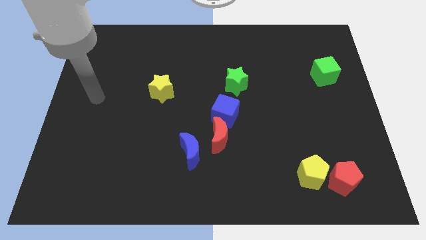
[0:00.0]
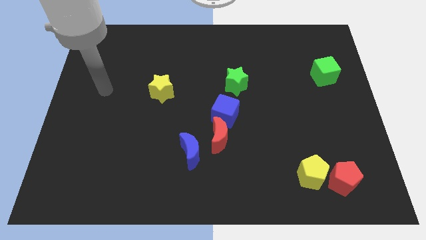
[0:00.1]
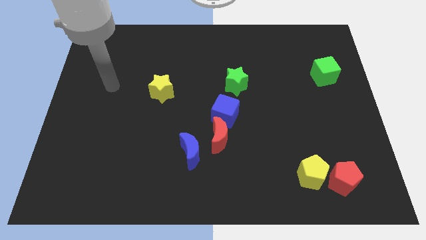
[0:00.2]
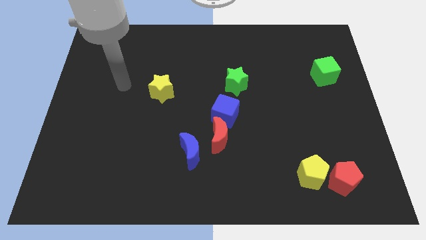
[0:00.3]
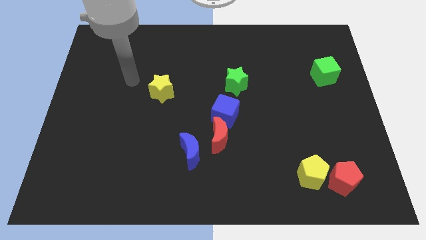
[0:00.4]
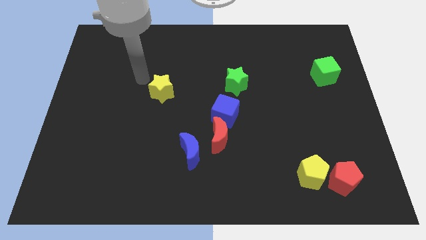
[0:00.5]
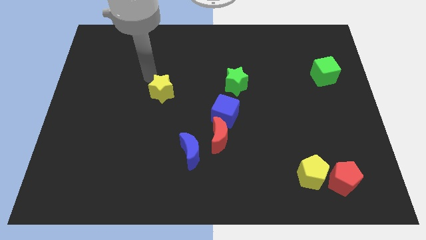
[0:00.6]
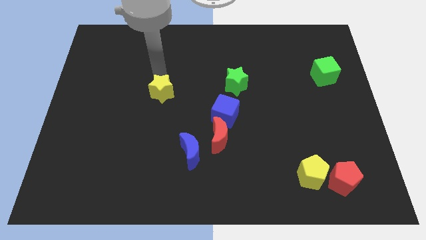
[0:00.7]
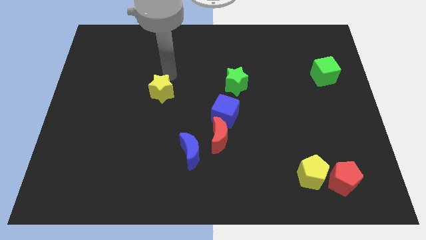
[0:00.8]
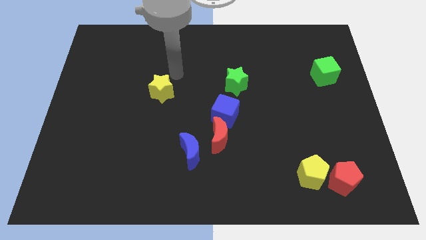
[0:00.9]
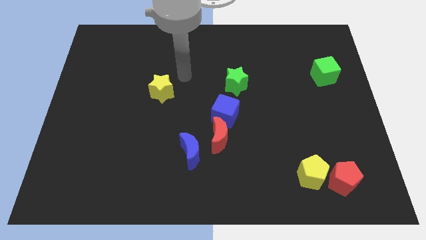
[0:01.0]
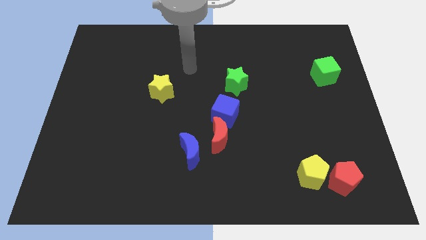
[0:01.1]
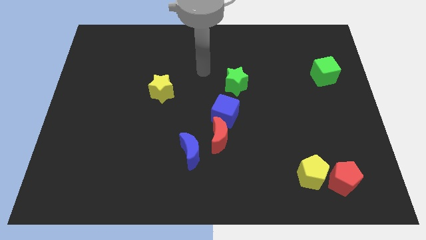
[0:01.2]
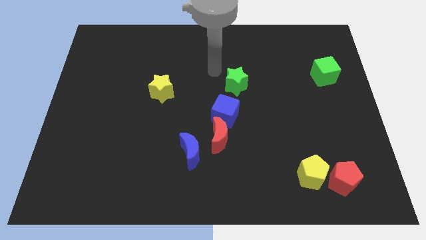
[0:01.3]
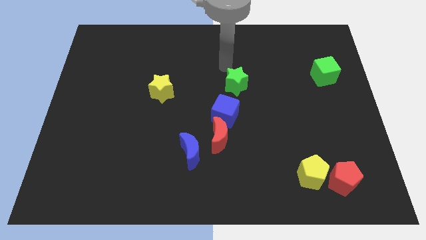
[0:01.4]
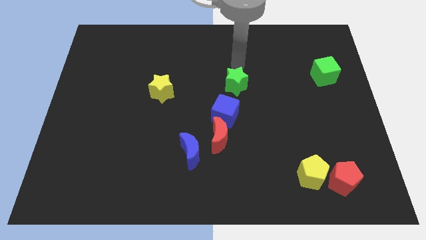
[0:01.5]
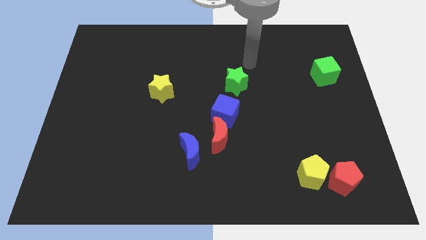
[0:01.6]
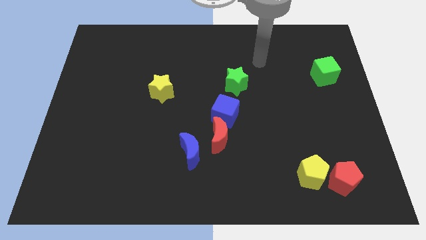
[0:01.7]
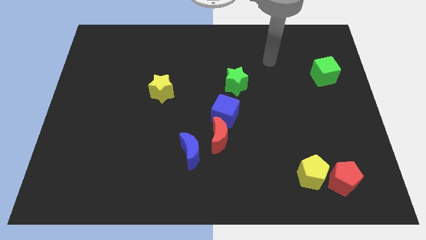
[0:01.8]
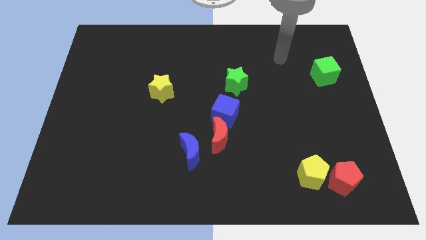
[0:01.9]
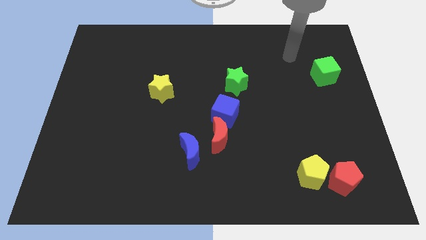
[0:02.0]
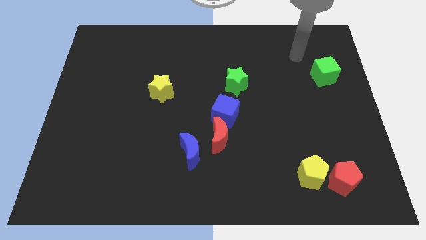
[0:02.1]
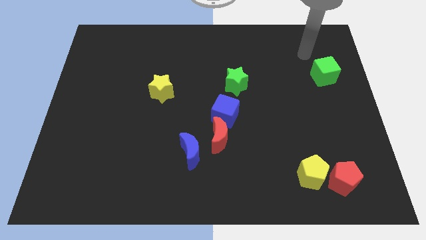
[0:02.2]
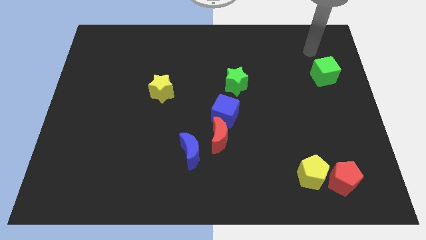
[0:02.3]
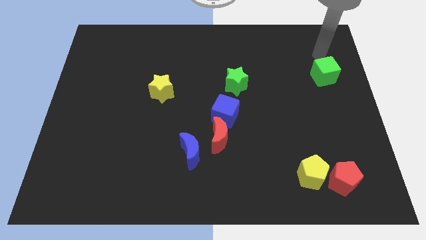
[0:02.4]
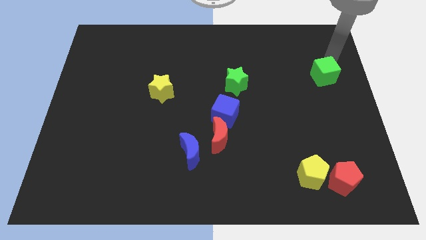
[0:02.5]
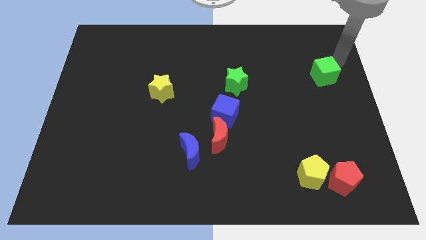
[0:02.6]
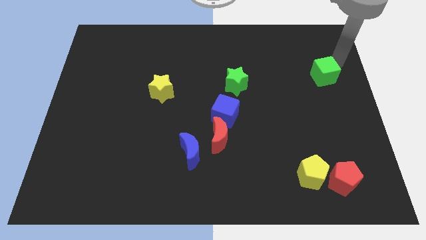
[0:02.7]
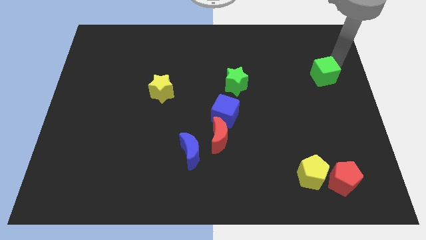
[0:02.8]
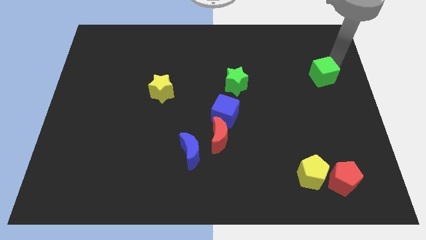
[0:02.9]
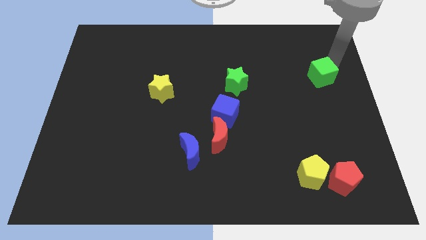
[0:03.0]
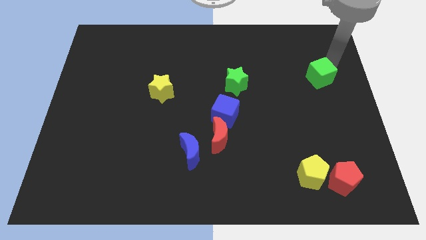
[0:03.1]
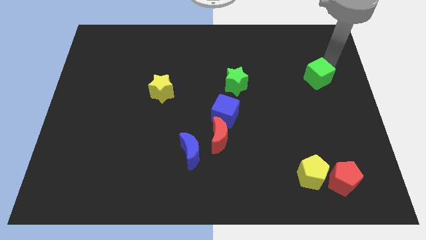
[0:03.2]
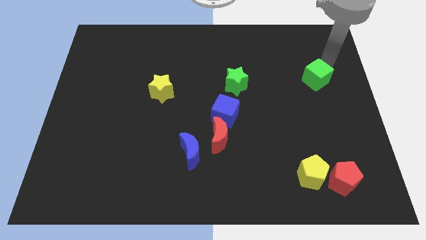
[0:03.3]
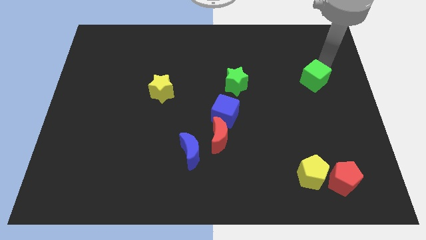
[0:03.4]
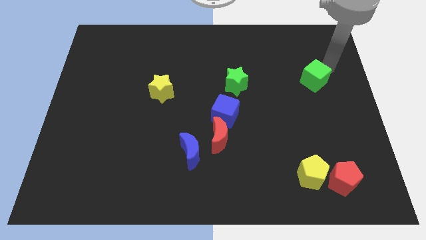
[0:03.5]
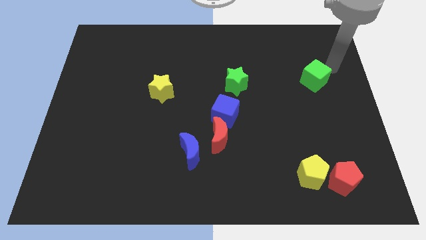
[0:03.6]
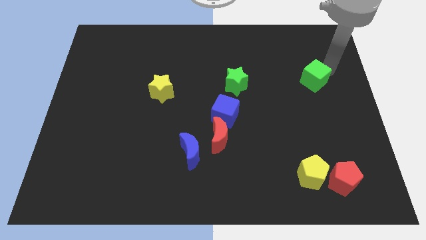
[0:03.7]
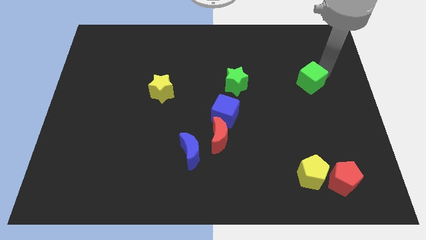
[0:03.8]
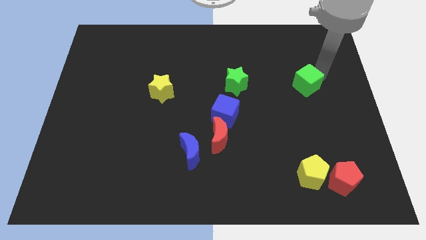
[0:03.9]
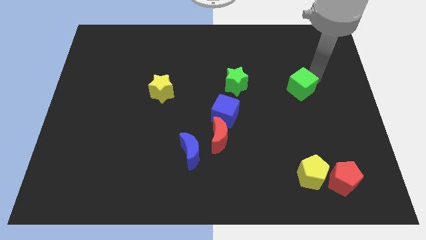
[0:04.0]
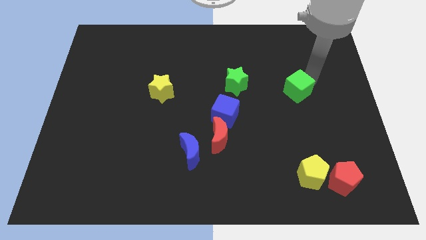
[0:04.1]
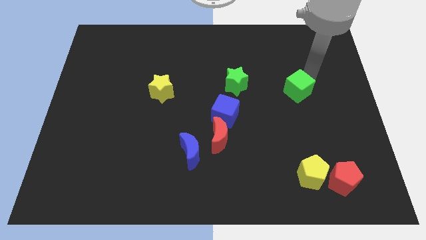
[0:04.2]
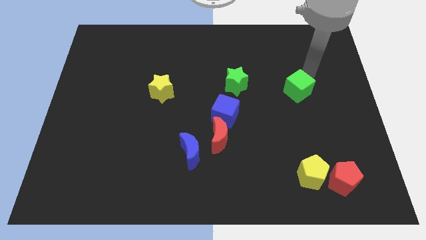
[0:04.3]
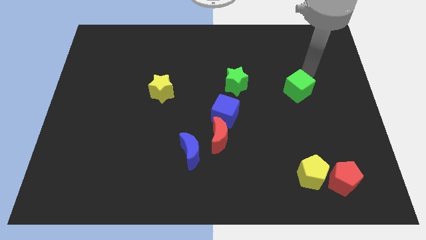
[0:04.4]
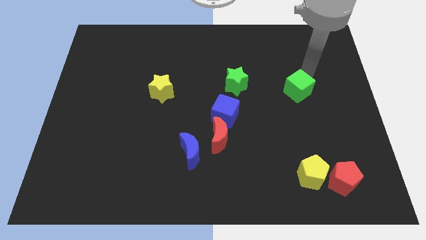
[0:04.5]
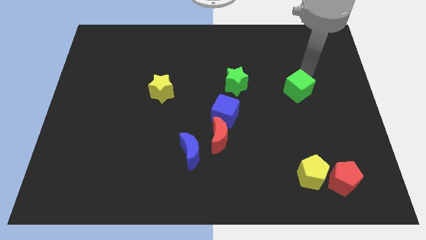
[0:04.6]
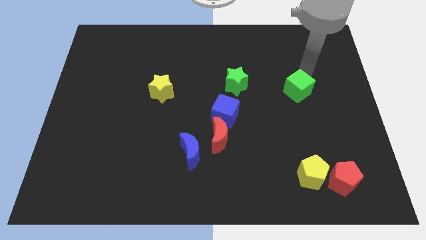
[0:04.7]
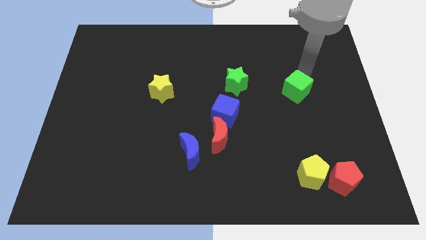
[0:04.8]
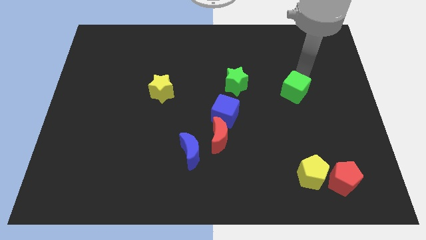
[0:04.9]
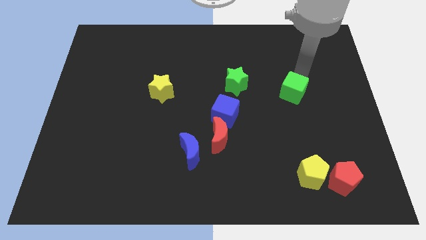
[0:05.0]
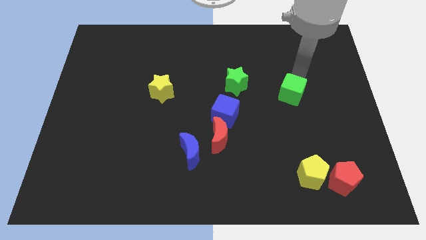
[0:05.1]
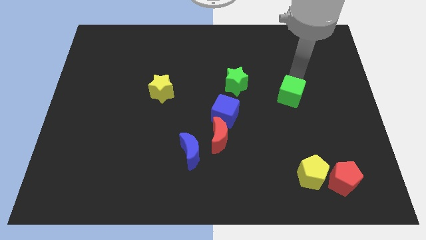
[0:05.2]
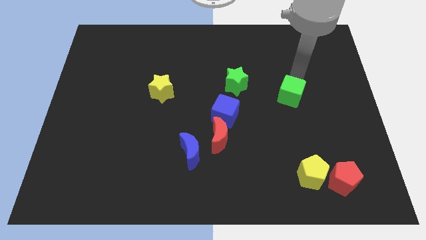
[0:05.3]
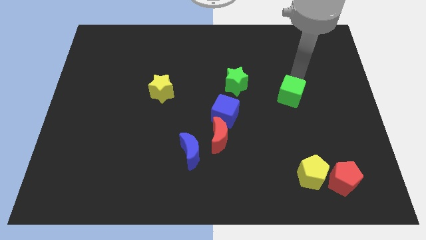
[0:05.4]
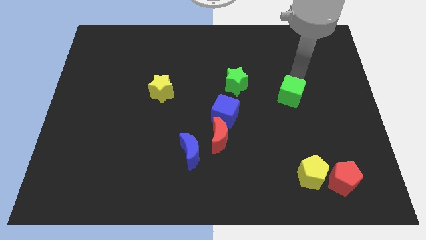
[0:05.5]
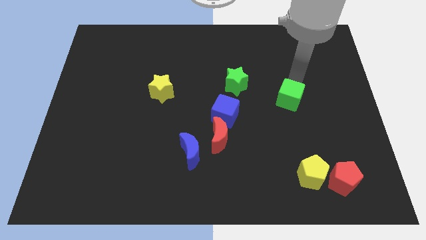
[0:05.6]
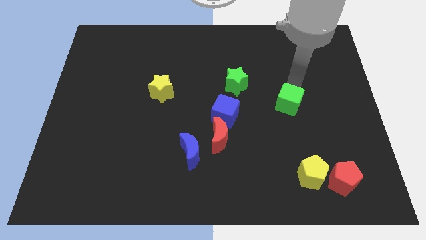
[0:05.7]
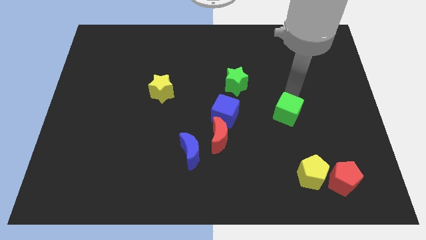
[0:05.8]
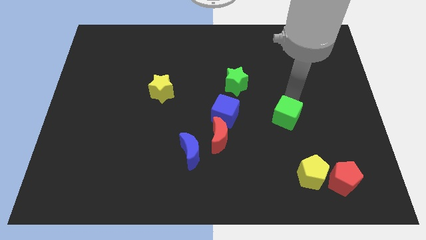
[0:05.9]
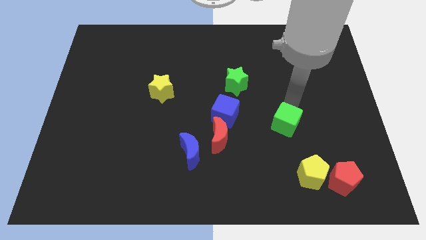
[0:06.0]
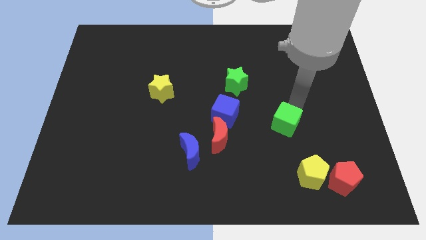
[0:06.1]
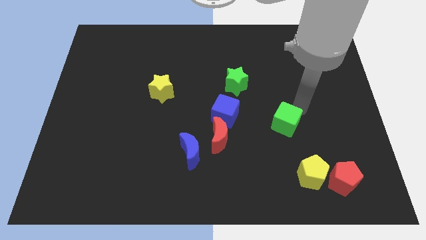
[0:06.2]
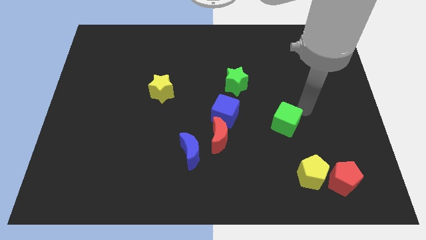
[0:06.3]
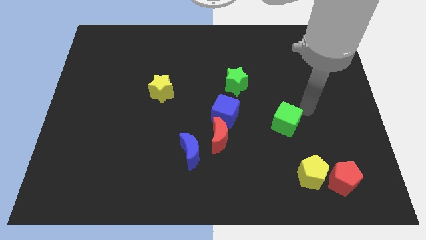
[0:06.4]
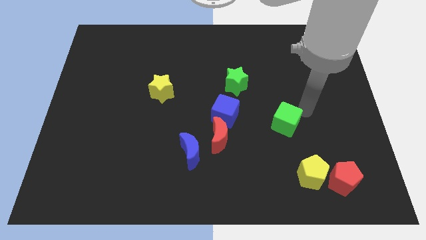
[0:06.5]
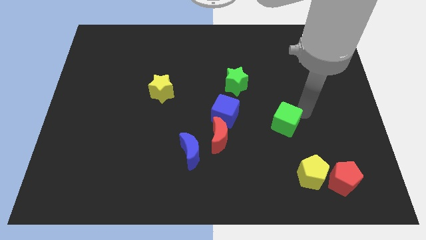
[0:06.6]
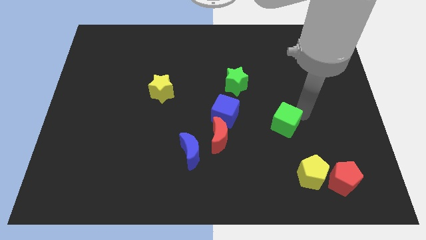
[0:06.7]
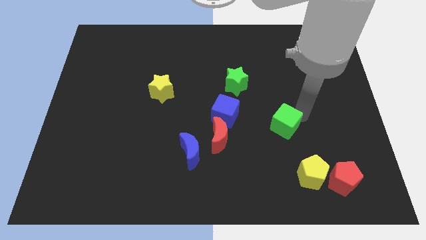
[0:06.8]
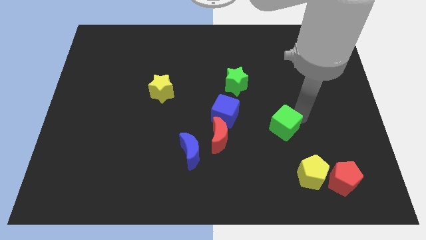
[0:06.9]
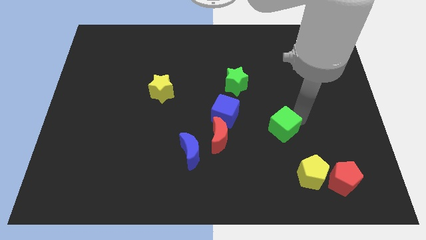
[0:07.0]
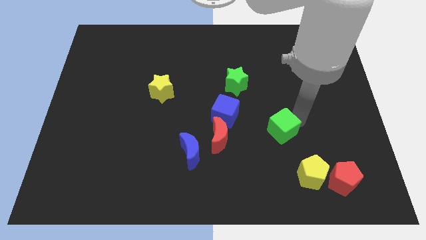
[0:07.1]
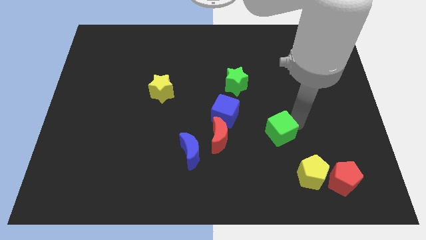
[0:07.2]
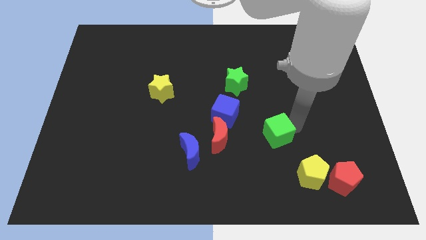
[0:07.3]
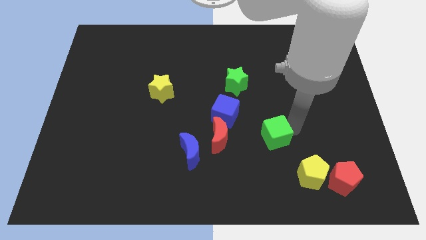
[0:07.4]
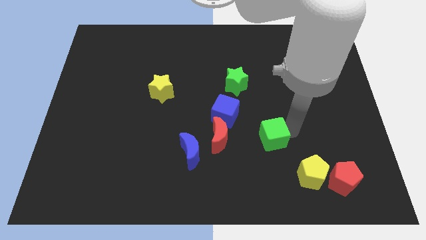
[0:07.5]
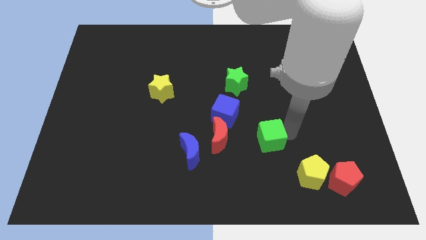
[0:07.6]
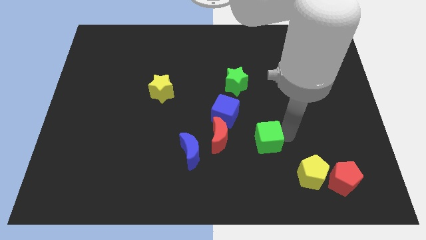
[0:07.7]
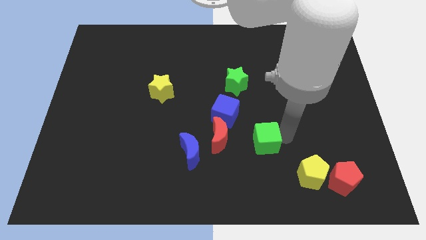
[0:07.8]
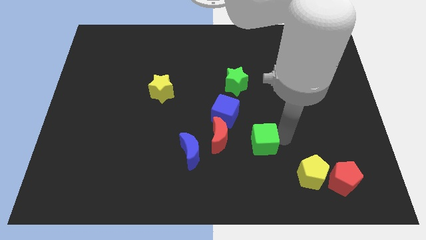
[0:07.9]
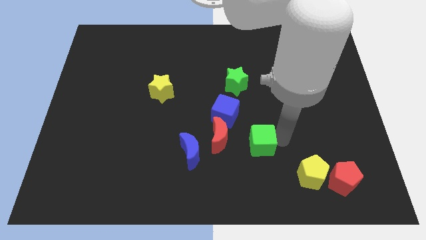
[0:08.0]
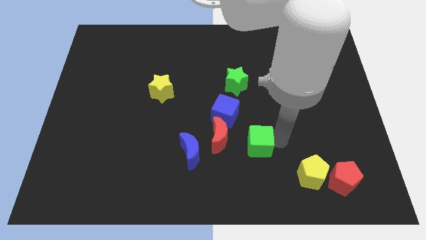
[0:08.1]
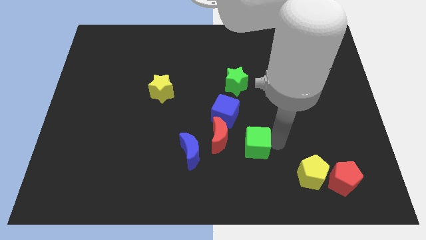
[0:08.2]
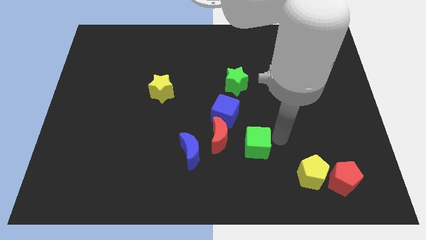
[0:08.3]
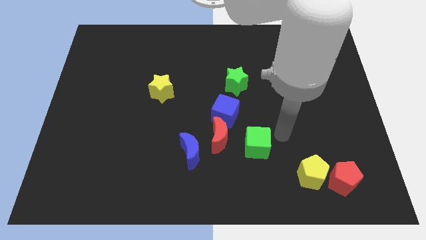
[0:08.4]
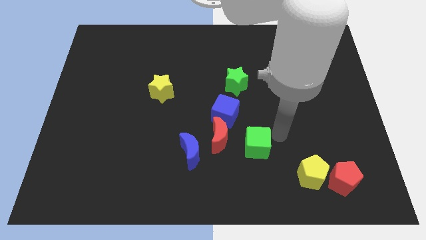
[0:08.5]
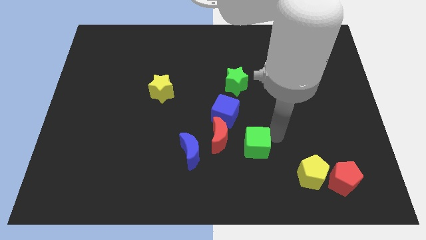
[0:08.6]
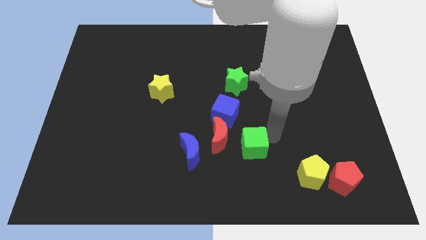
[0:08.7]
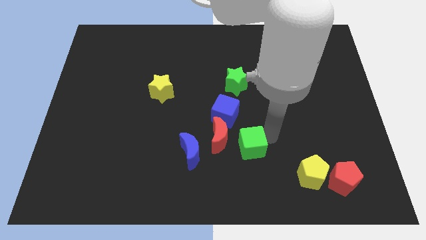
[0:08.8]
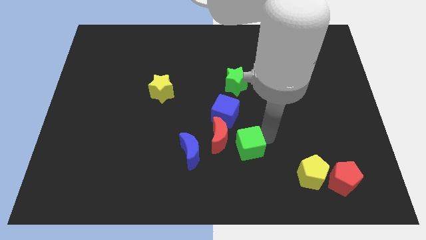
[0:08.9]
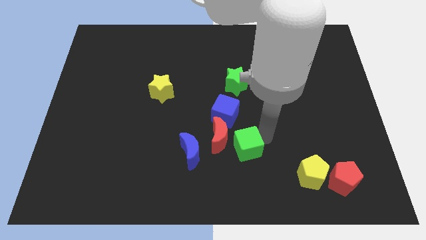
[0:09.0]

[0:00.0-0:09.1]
slide the green cube below the blue cube
